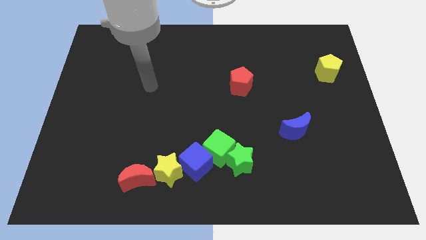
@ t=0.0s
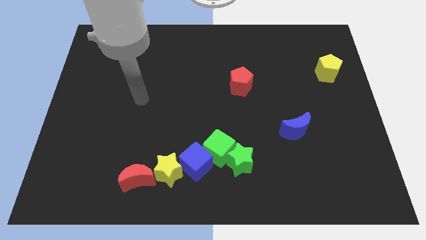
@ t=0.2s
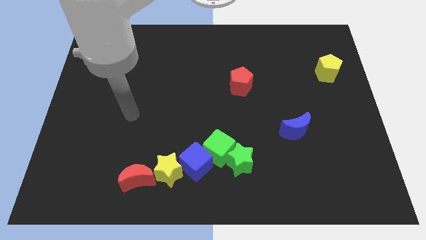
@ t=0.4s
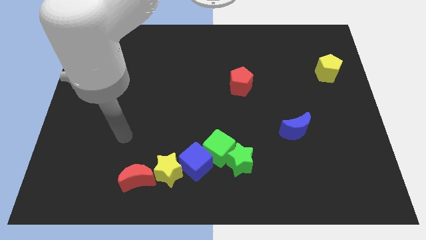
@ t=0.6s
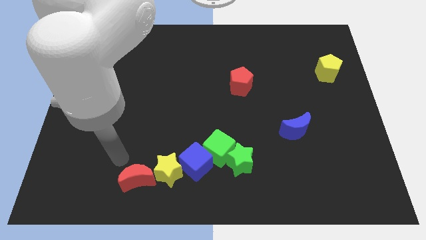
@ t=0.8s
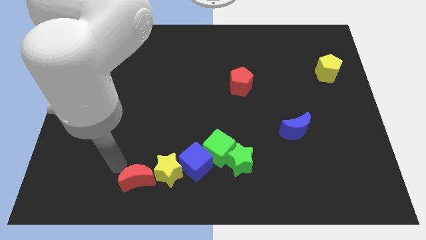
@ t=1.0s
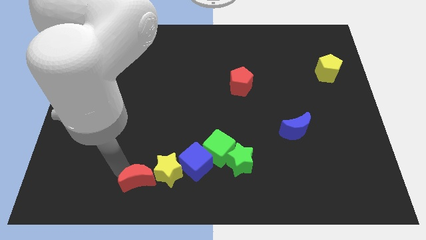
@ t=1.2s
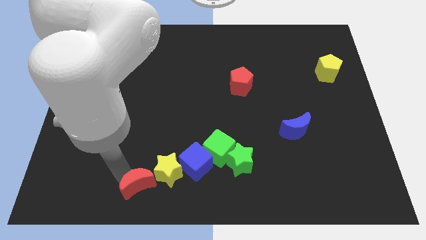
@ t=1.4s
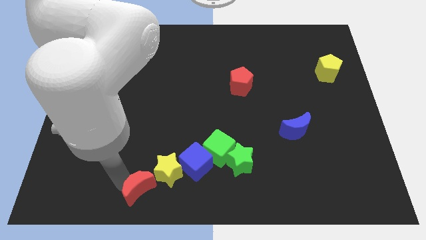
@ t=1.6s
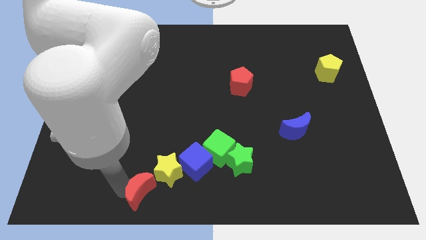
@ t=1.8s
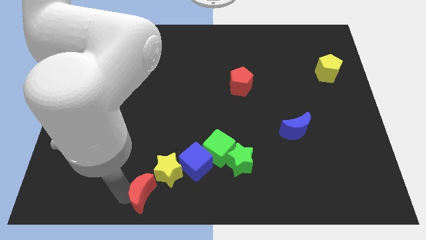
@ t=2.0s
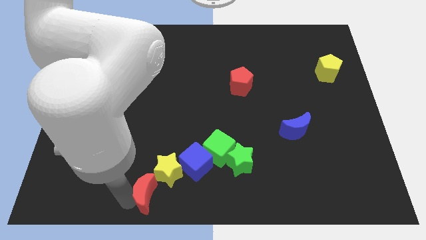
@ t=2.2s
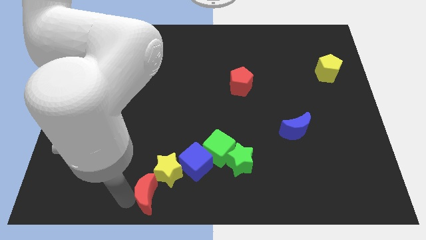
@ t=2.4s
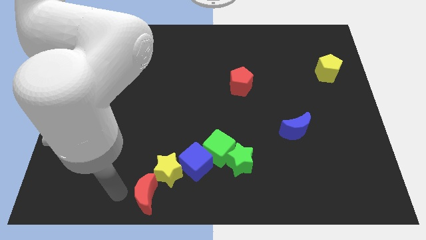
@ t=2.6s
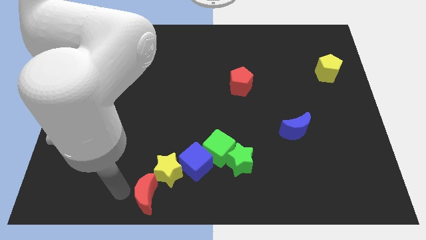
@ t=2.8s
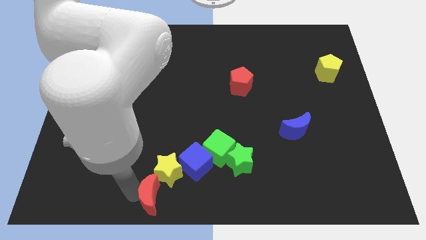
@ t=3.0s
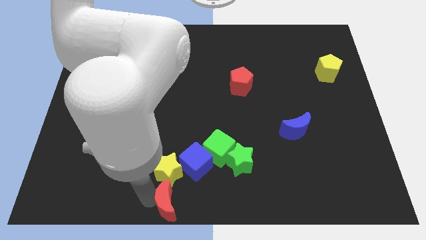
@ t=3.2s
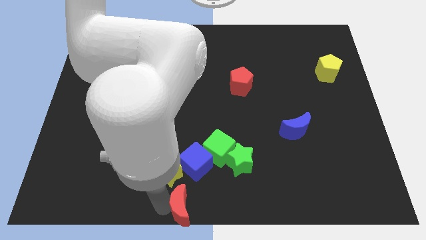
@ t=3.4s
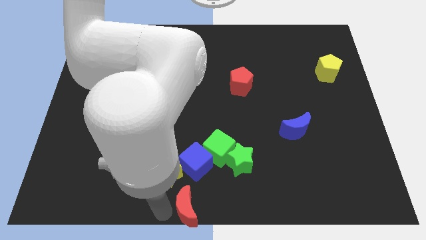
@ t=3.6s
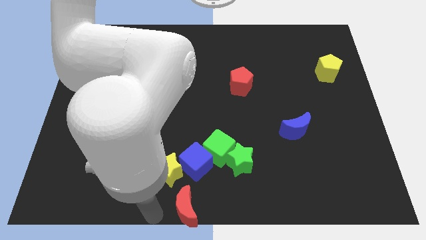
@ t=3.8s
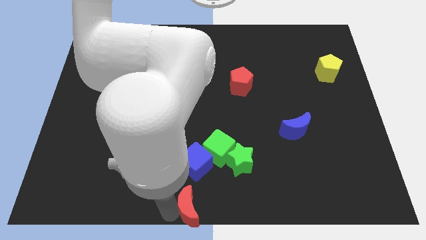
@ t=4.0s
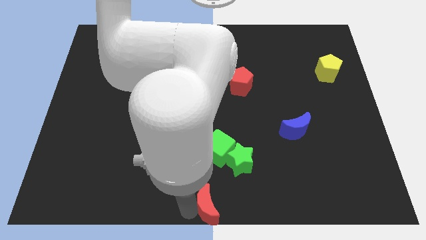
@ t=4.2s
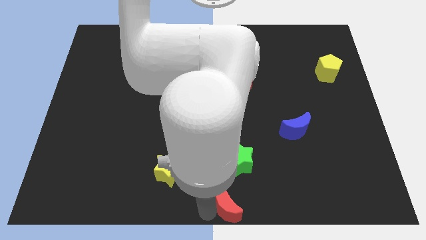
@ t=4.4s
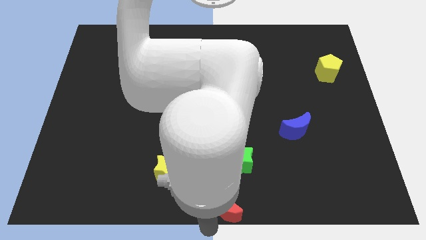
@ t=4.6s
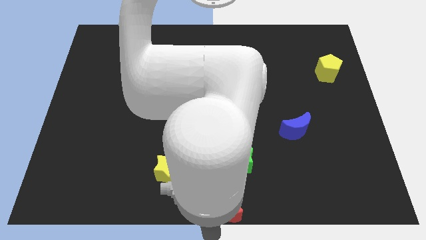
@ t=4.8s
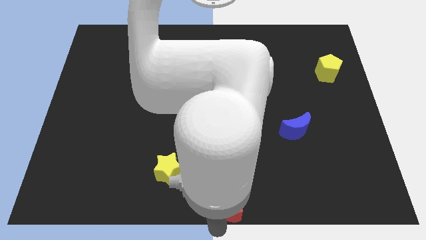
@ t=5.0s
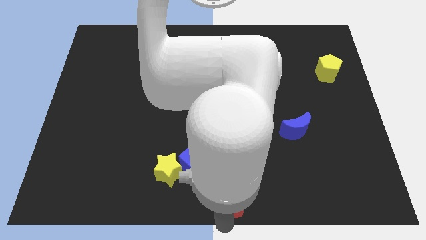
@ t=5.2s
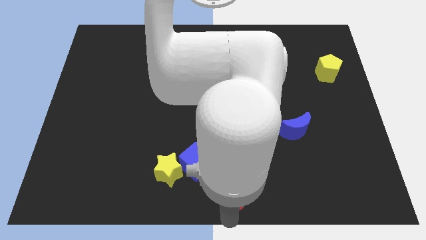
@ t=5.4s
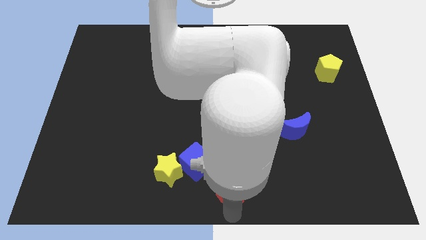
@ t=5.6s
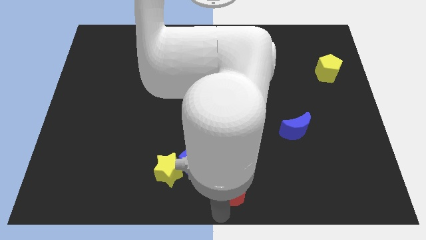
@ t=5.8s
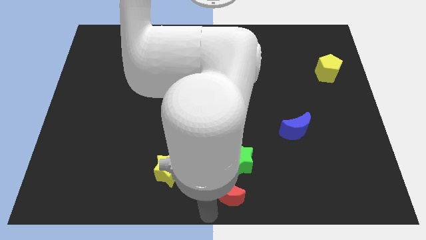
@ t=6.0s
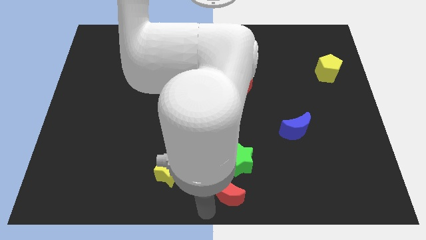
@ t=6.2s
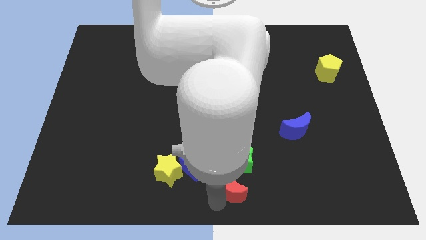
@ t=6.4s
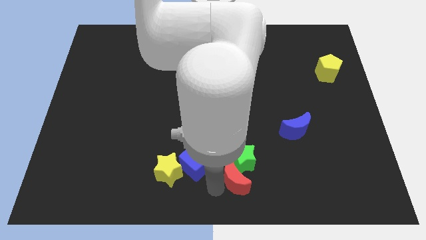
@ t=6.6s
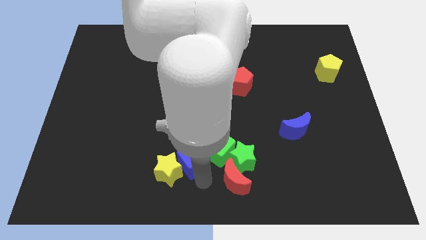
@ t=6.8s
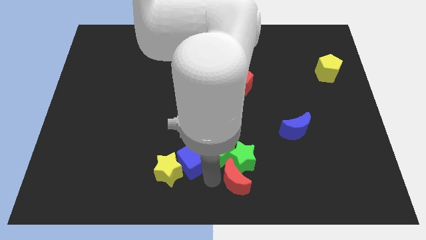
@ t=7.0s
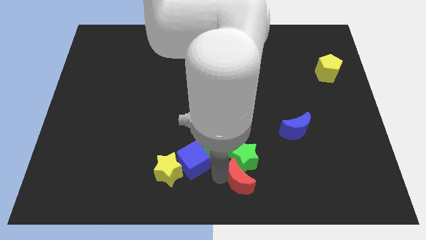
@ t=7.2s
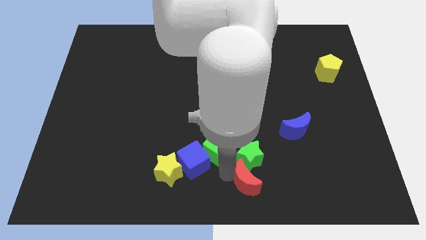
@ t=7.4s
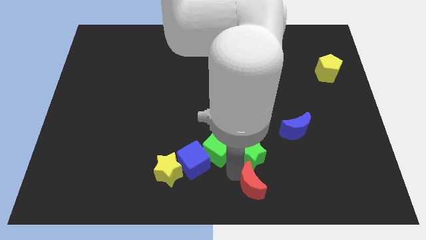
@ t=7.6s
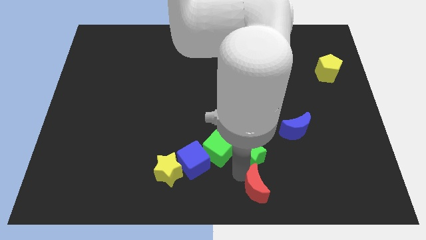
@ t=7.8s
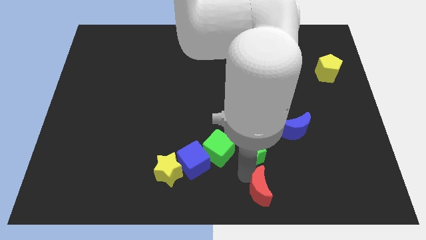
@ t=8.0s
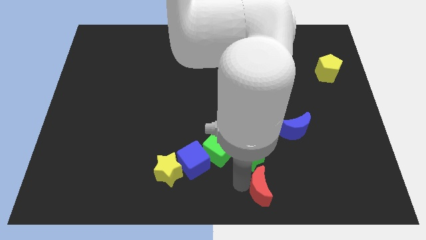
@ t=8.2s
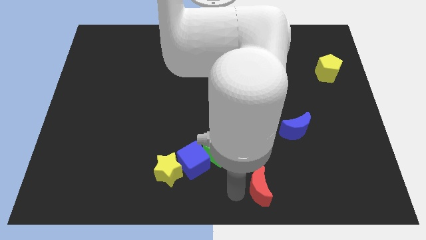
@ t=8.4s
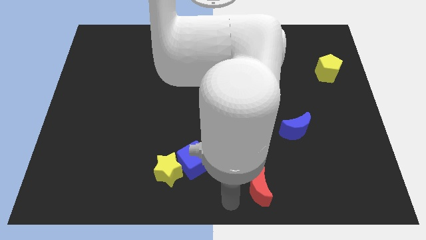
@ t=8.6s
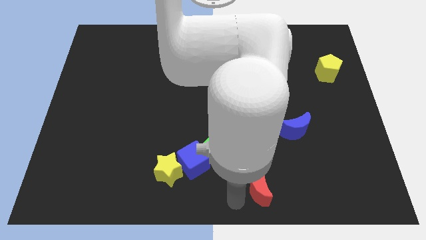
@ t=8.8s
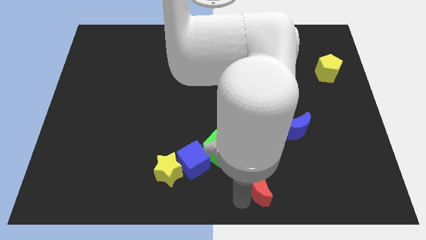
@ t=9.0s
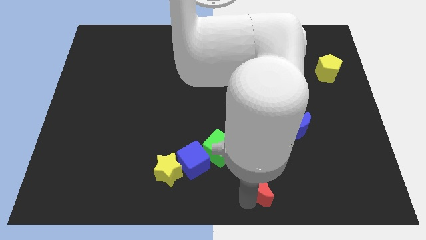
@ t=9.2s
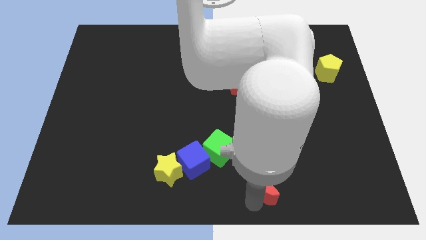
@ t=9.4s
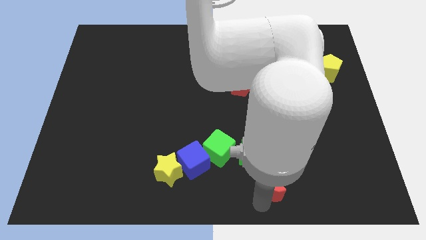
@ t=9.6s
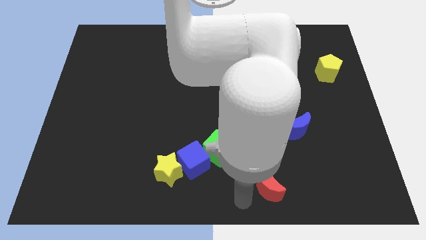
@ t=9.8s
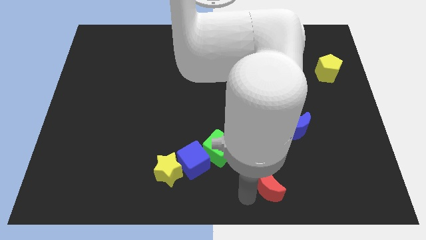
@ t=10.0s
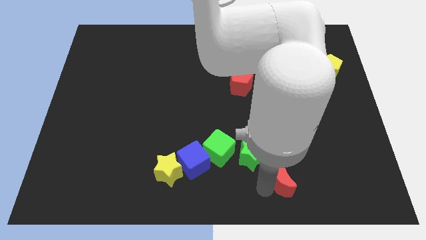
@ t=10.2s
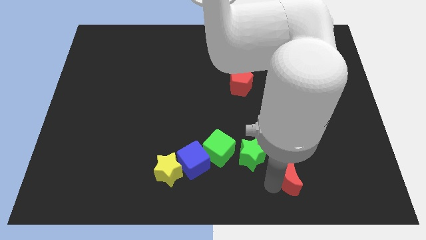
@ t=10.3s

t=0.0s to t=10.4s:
slide the red moon to the bottom side of the blue moon

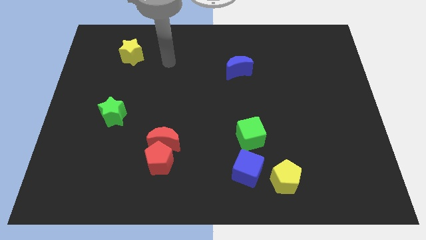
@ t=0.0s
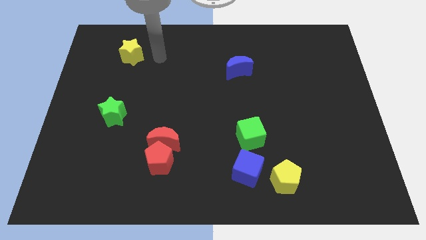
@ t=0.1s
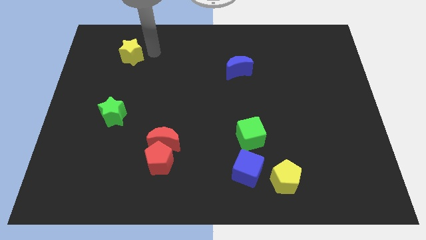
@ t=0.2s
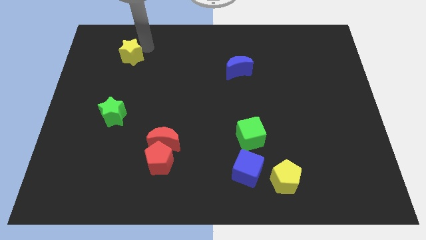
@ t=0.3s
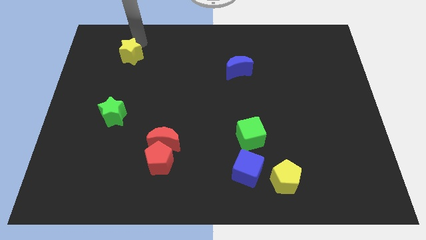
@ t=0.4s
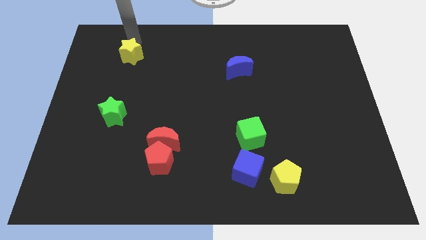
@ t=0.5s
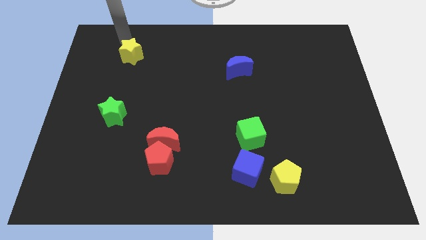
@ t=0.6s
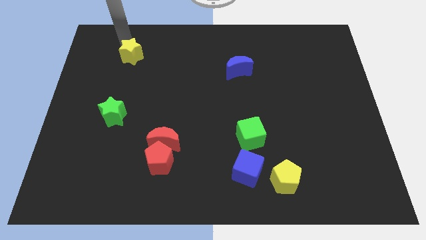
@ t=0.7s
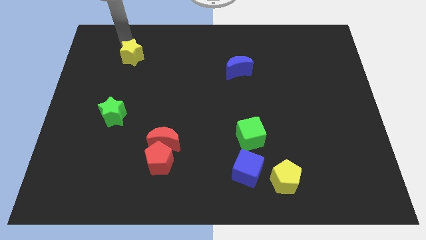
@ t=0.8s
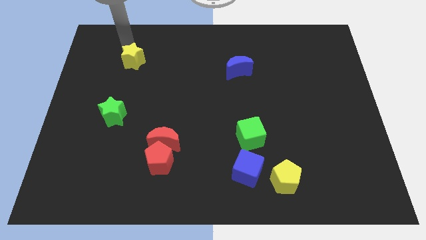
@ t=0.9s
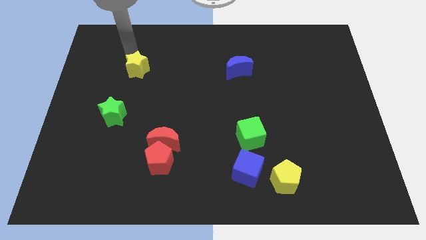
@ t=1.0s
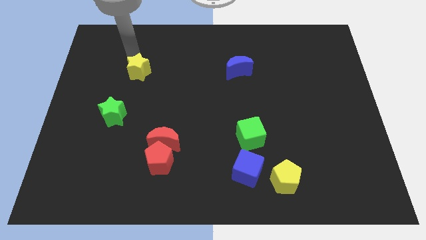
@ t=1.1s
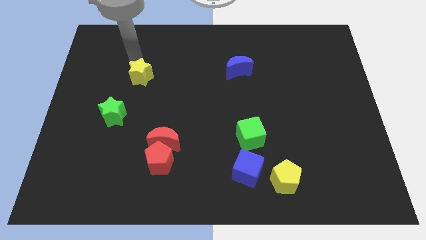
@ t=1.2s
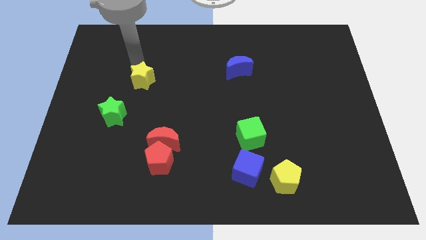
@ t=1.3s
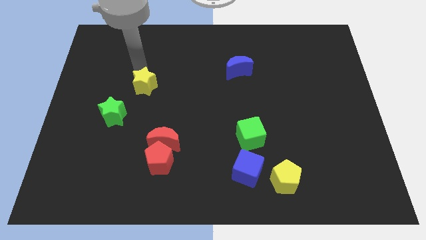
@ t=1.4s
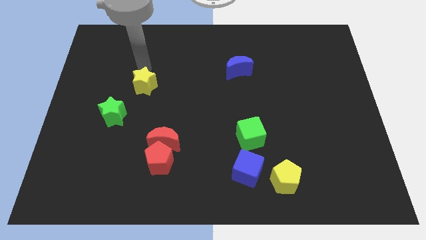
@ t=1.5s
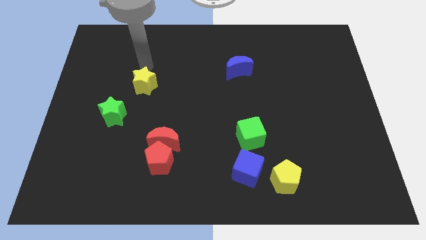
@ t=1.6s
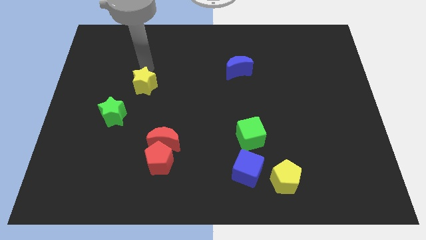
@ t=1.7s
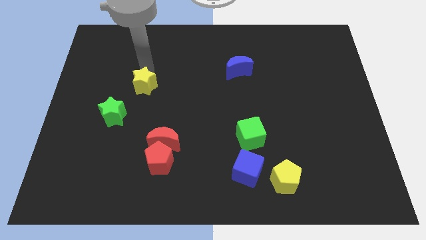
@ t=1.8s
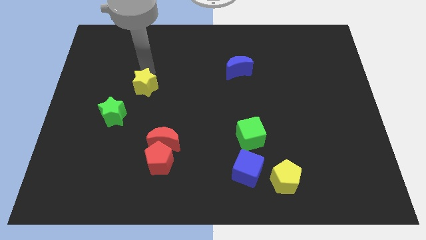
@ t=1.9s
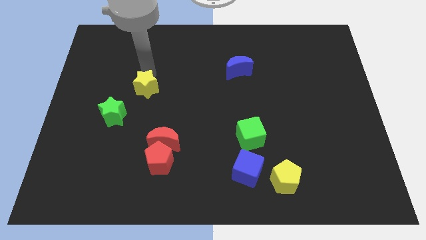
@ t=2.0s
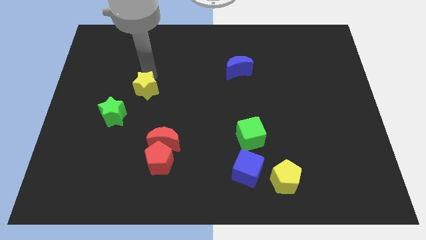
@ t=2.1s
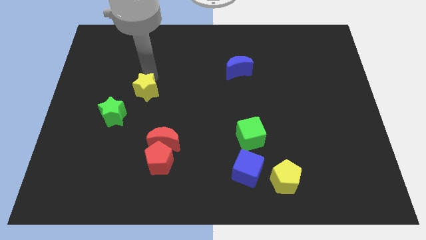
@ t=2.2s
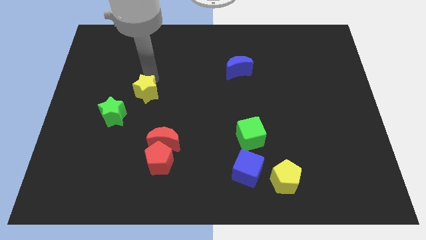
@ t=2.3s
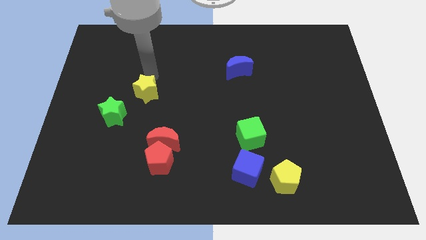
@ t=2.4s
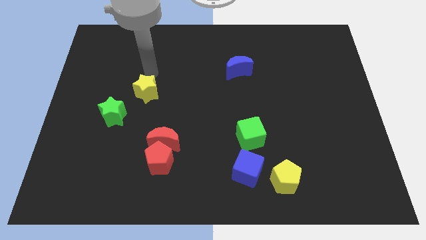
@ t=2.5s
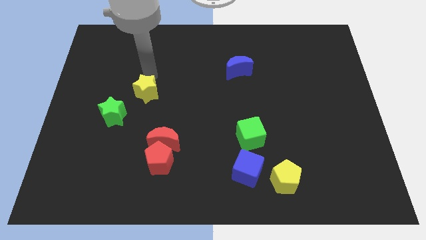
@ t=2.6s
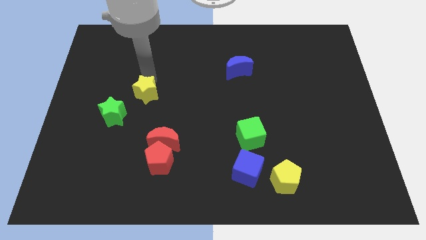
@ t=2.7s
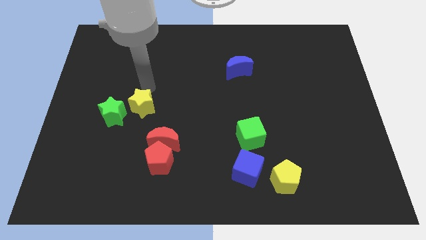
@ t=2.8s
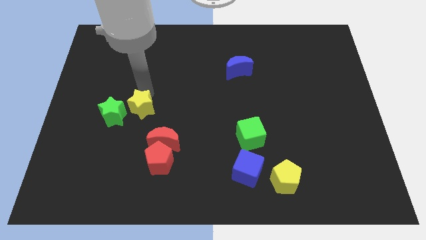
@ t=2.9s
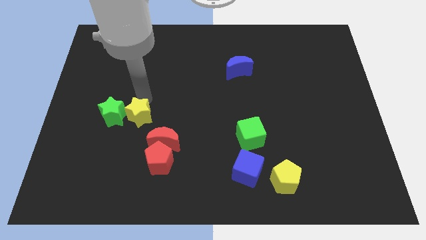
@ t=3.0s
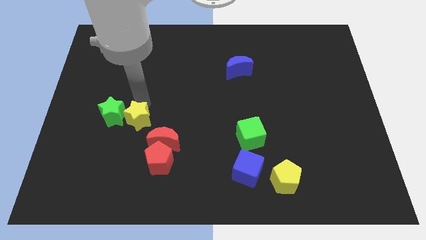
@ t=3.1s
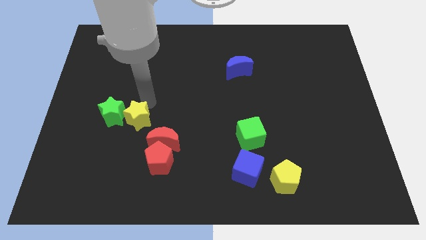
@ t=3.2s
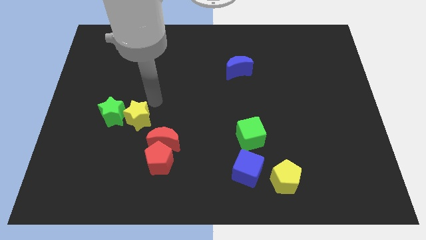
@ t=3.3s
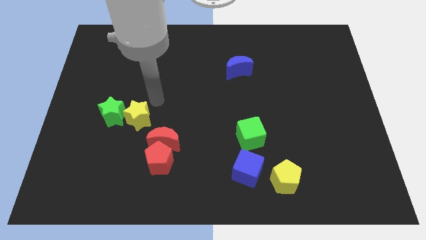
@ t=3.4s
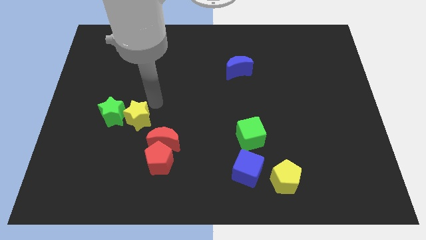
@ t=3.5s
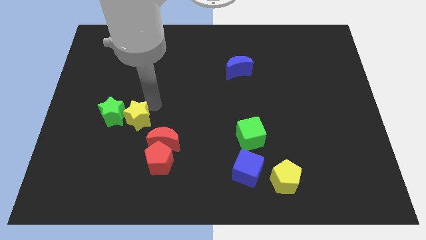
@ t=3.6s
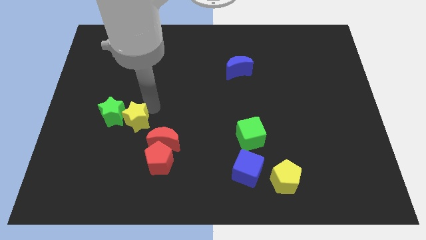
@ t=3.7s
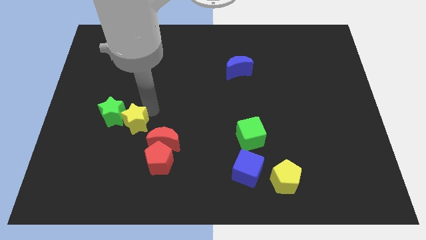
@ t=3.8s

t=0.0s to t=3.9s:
push the yellow star to the left side of the red moon
